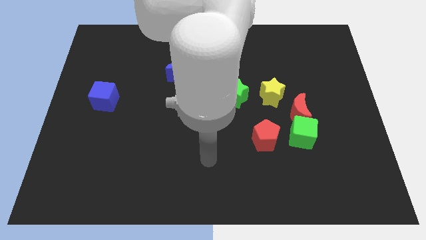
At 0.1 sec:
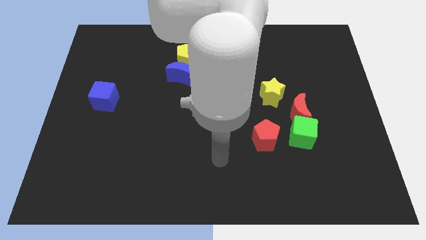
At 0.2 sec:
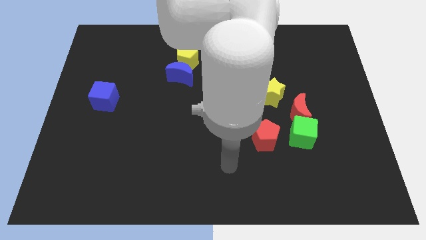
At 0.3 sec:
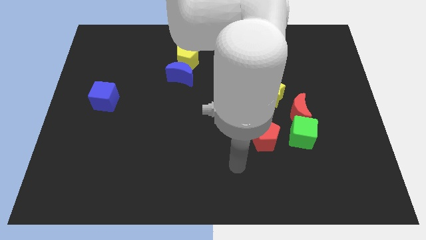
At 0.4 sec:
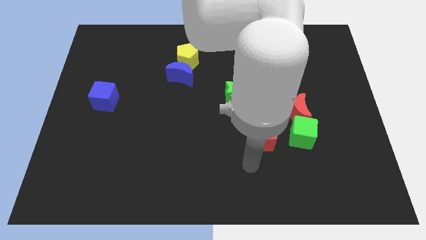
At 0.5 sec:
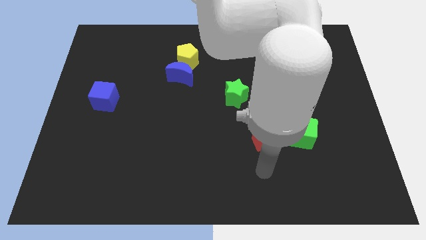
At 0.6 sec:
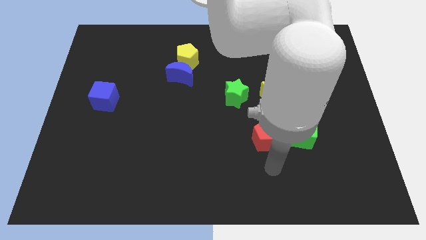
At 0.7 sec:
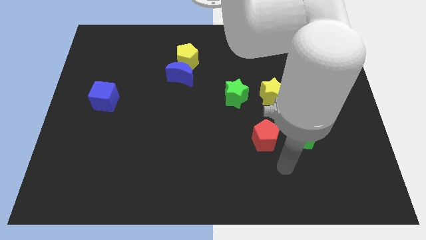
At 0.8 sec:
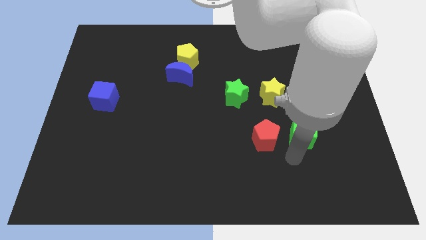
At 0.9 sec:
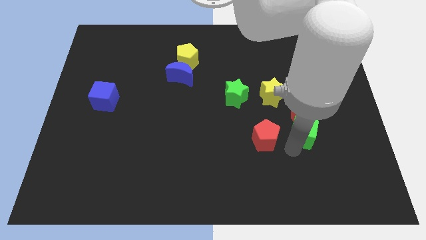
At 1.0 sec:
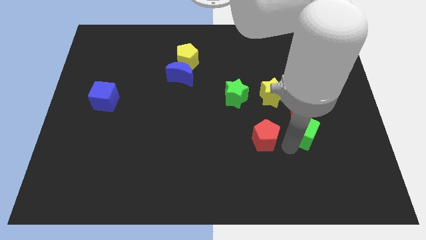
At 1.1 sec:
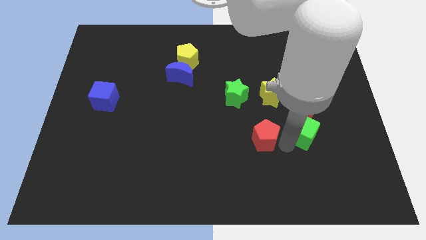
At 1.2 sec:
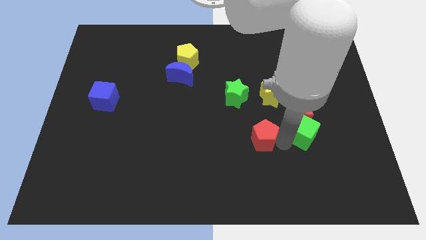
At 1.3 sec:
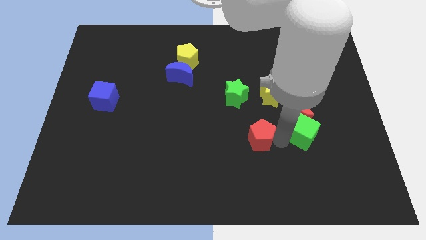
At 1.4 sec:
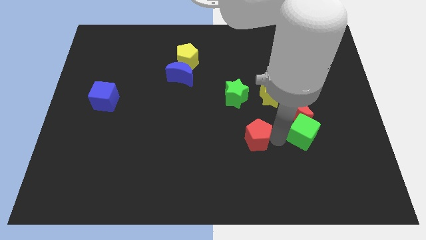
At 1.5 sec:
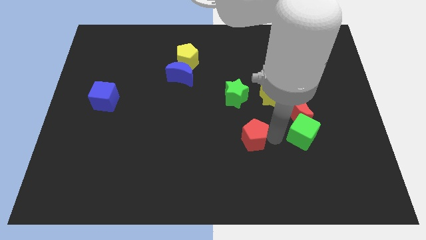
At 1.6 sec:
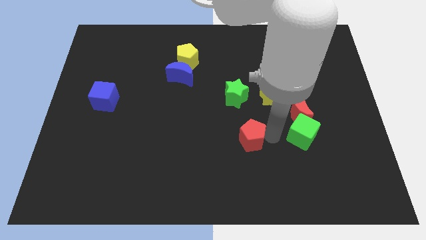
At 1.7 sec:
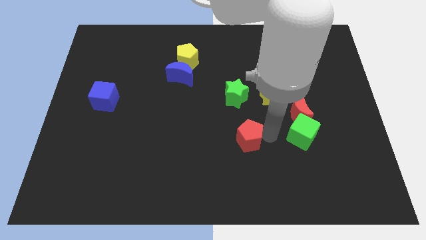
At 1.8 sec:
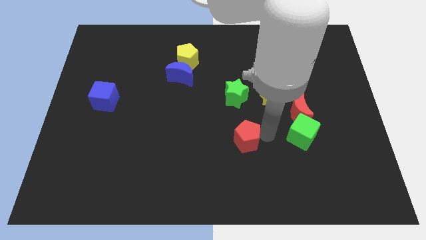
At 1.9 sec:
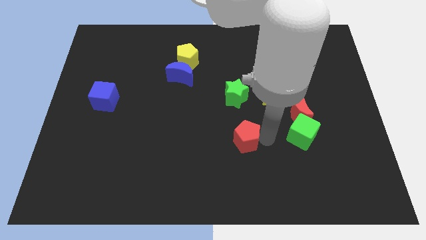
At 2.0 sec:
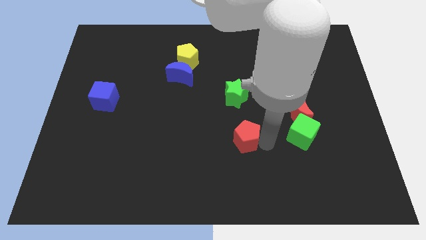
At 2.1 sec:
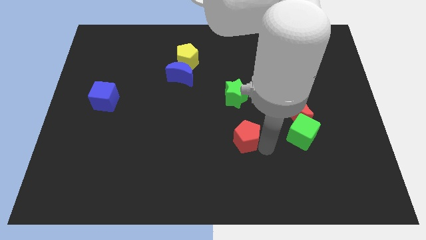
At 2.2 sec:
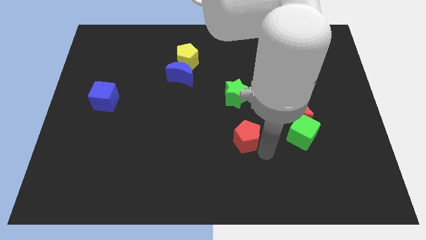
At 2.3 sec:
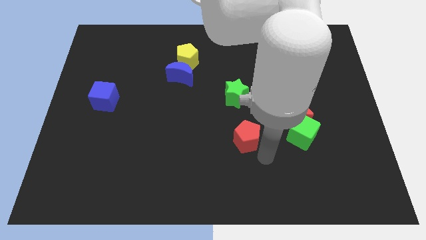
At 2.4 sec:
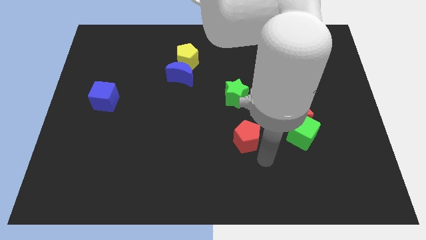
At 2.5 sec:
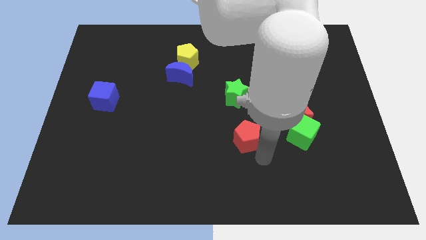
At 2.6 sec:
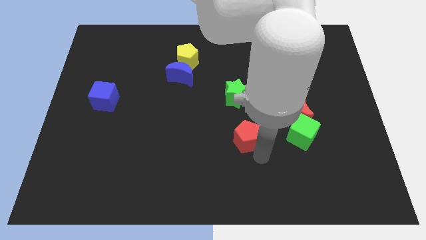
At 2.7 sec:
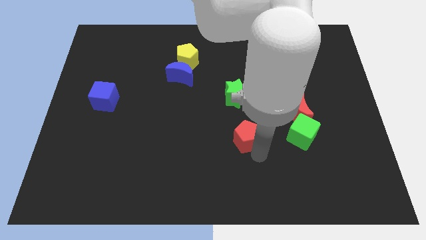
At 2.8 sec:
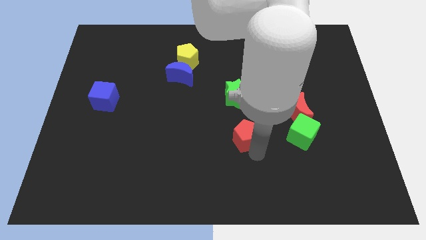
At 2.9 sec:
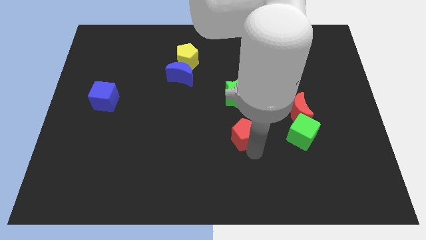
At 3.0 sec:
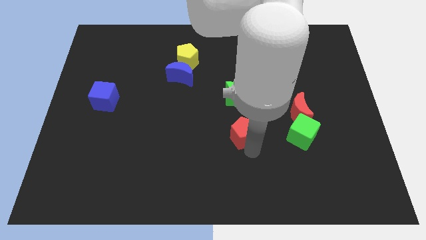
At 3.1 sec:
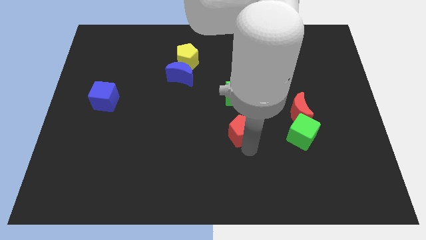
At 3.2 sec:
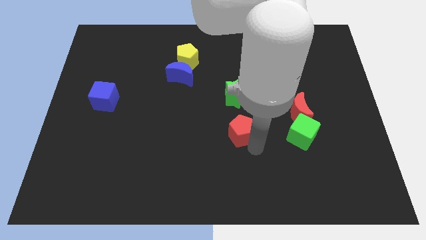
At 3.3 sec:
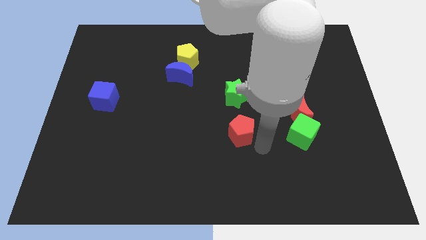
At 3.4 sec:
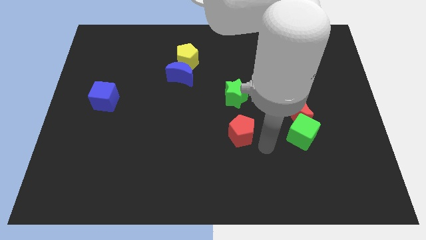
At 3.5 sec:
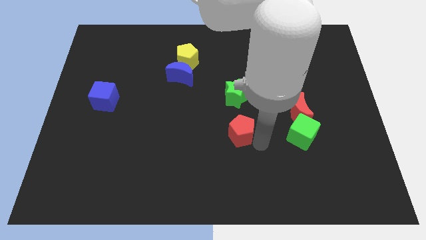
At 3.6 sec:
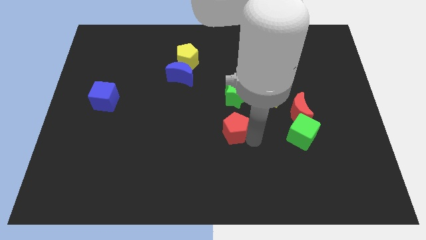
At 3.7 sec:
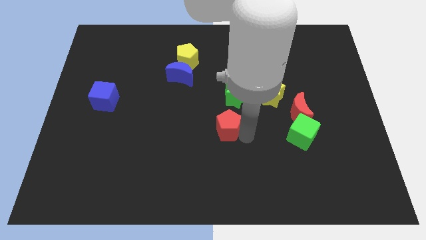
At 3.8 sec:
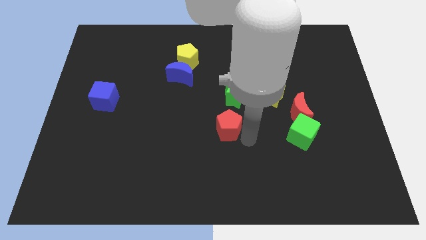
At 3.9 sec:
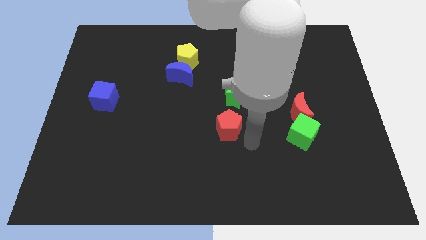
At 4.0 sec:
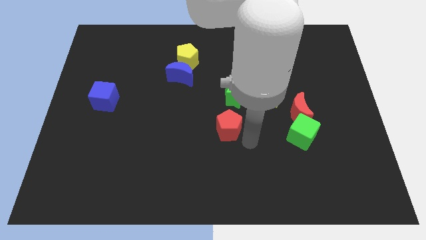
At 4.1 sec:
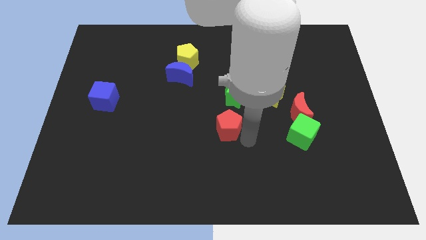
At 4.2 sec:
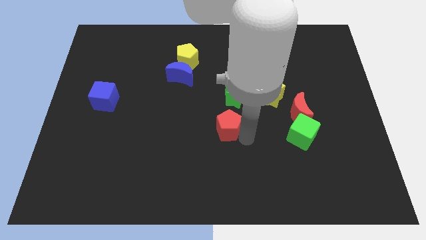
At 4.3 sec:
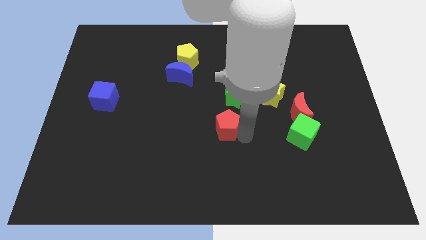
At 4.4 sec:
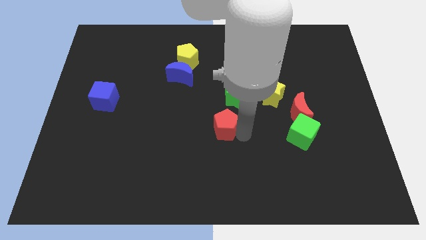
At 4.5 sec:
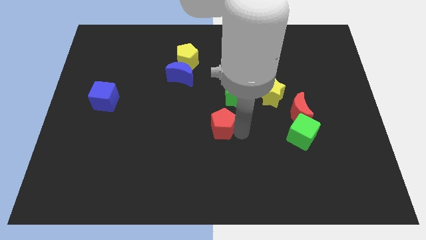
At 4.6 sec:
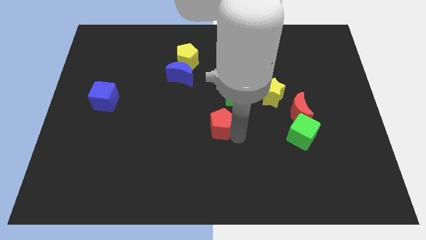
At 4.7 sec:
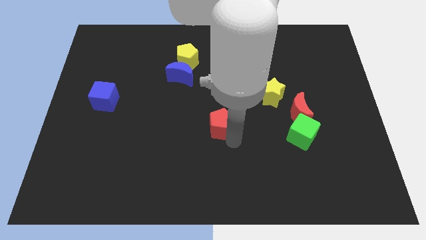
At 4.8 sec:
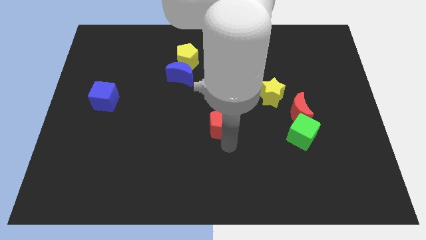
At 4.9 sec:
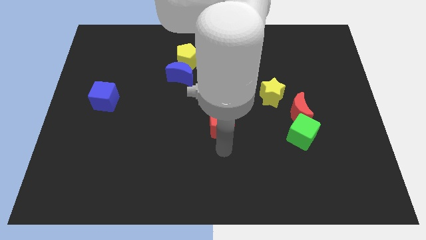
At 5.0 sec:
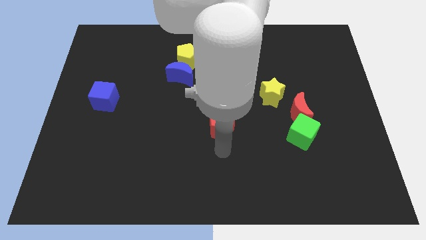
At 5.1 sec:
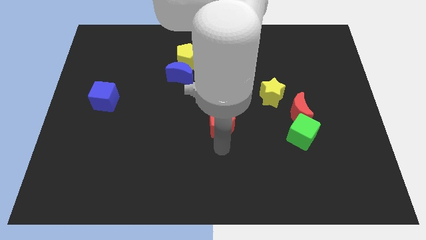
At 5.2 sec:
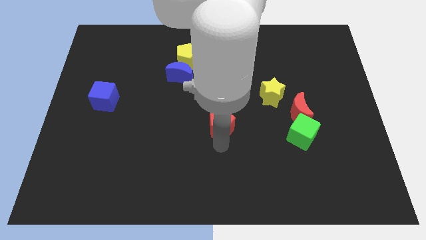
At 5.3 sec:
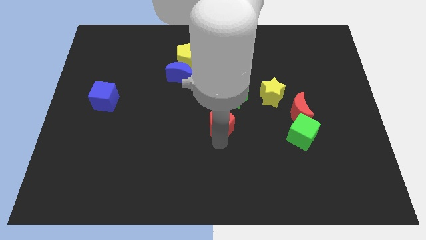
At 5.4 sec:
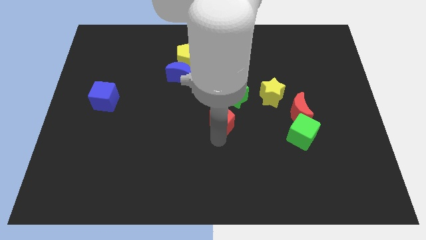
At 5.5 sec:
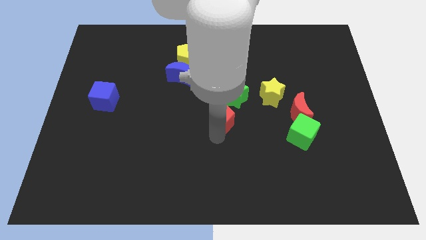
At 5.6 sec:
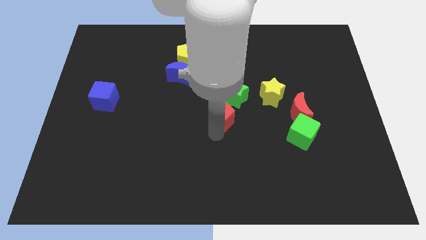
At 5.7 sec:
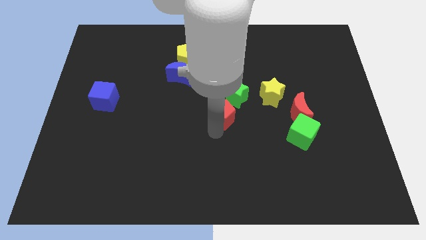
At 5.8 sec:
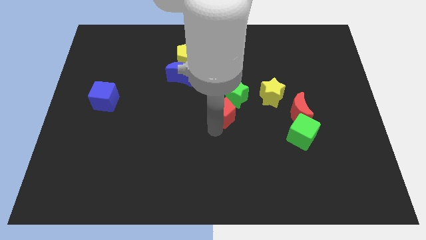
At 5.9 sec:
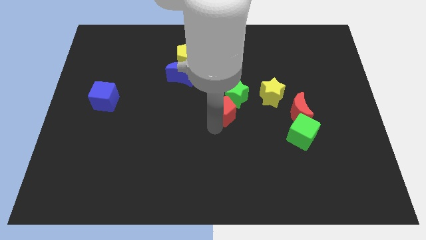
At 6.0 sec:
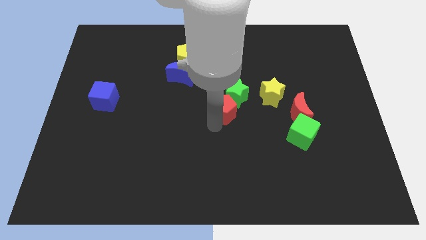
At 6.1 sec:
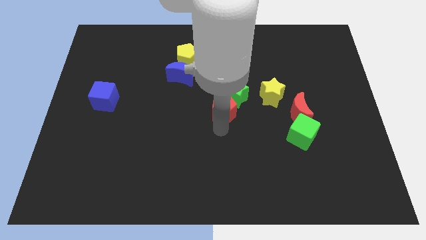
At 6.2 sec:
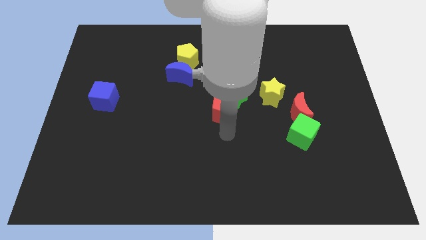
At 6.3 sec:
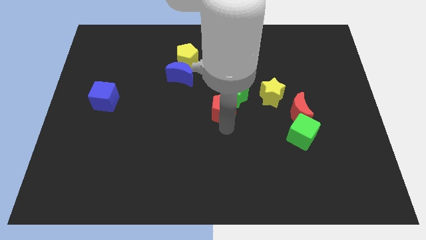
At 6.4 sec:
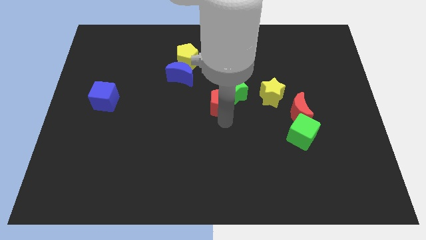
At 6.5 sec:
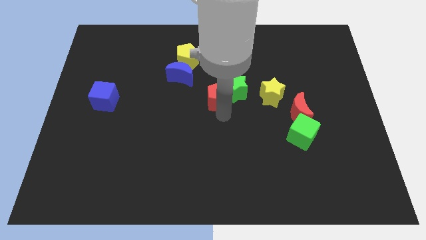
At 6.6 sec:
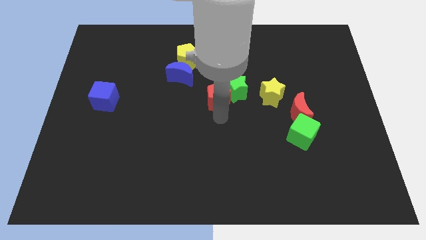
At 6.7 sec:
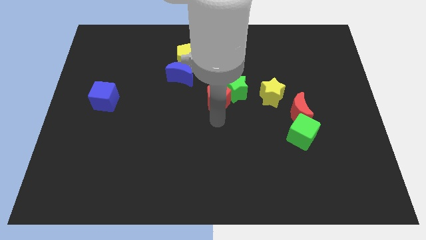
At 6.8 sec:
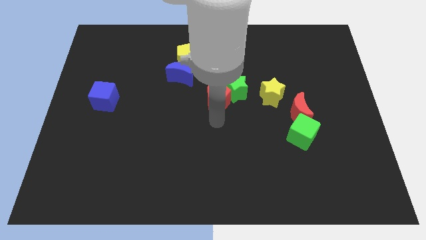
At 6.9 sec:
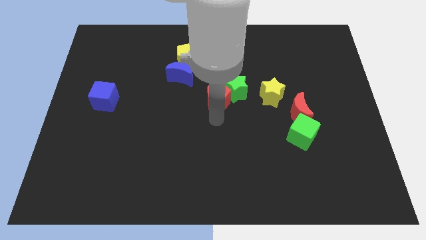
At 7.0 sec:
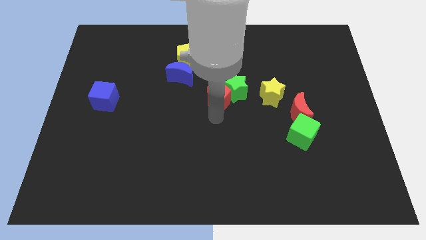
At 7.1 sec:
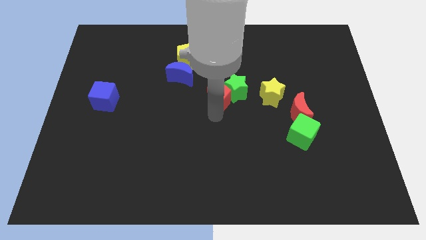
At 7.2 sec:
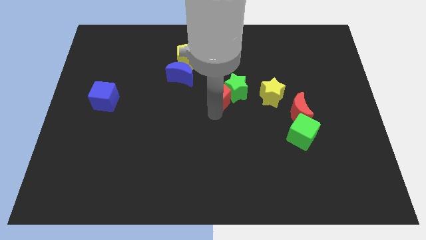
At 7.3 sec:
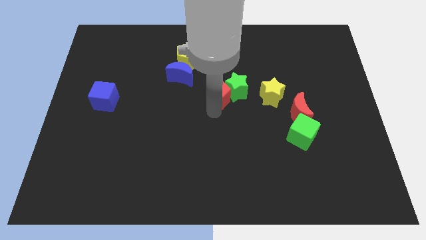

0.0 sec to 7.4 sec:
slightly push the red pentagon up
